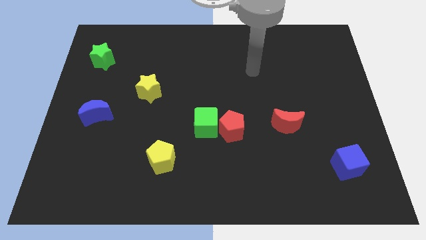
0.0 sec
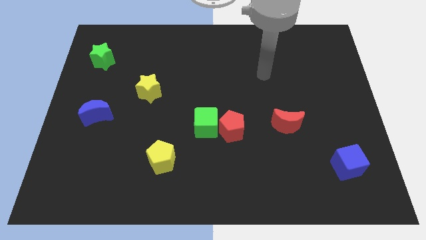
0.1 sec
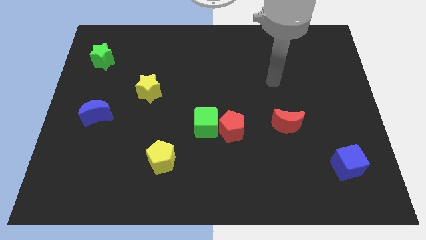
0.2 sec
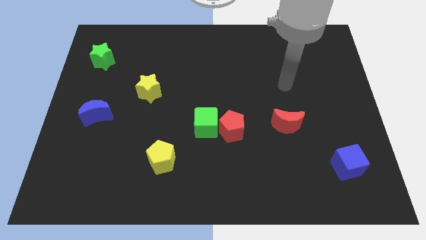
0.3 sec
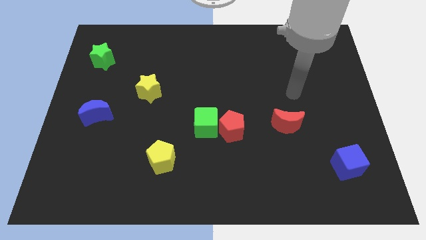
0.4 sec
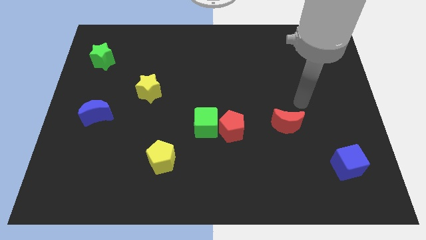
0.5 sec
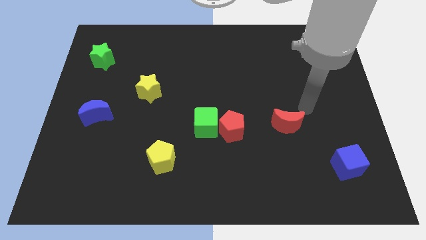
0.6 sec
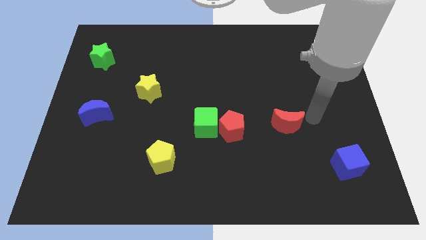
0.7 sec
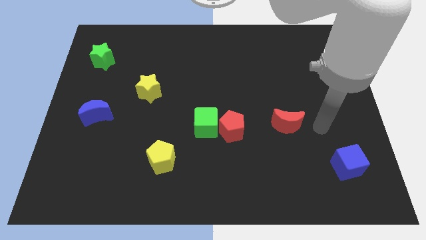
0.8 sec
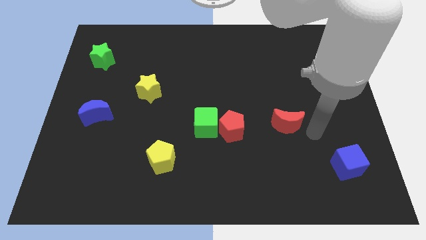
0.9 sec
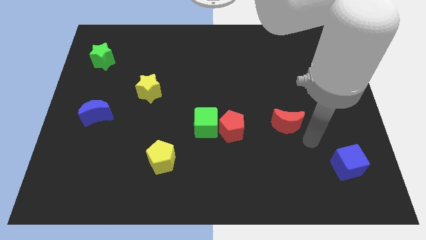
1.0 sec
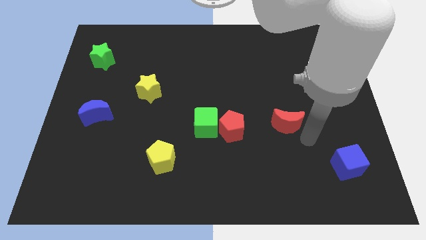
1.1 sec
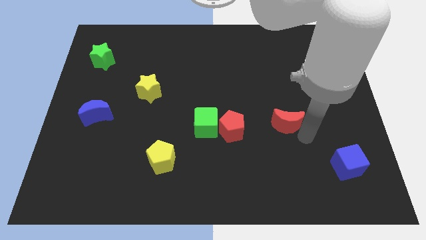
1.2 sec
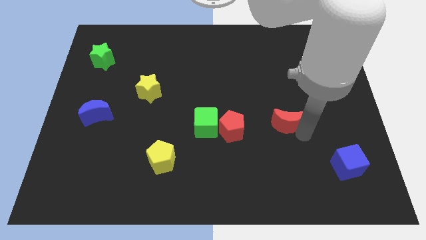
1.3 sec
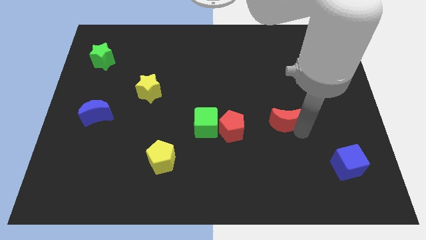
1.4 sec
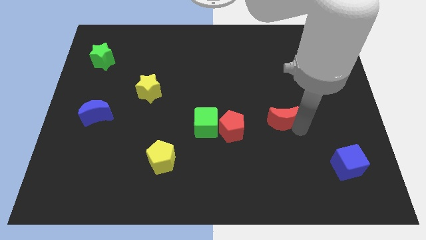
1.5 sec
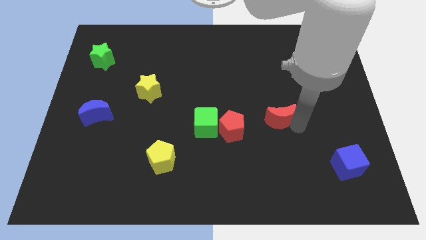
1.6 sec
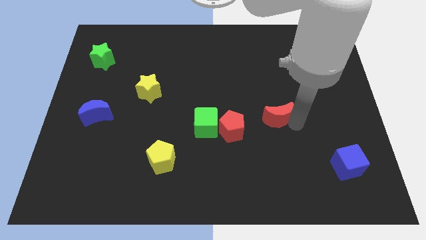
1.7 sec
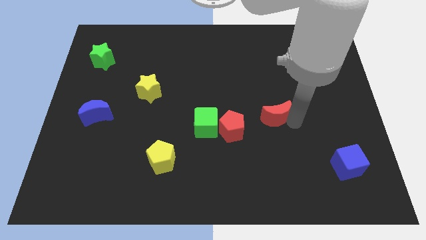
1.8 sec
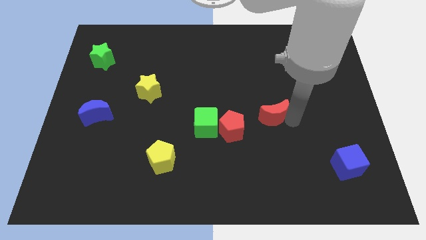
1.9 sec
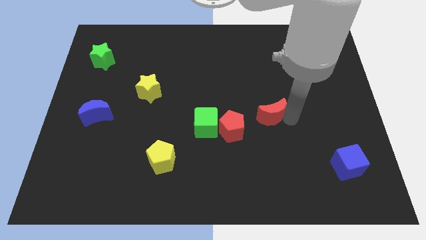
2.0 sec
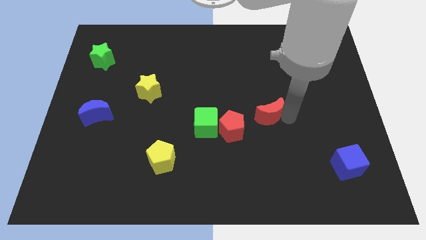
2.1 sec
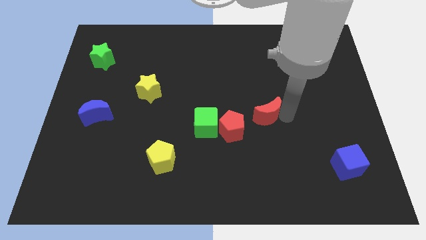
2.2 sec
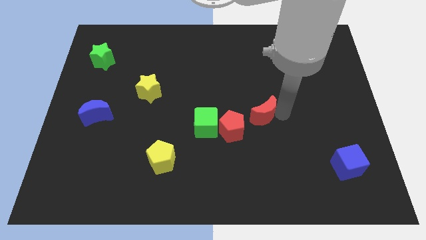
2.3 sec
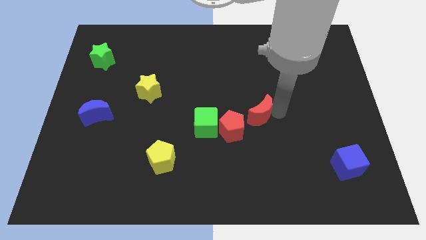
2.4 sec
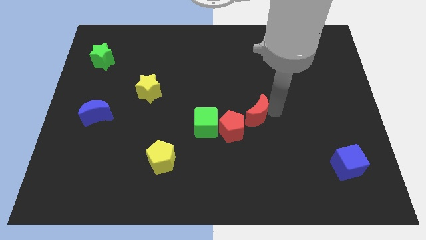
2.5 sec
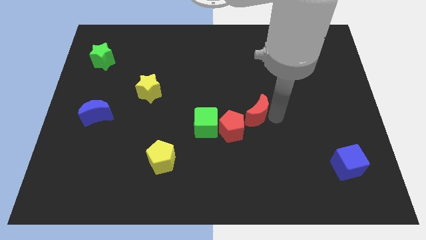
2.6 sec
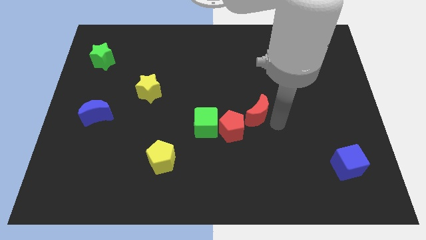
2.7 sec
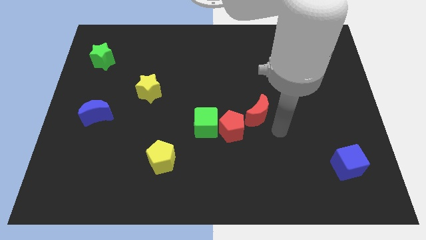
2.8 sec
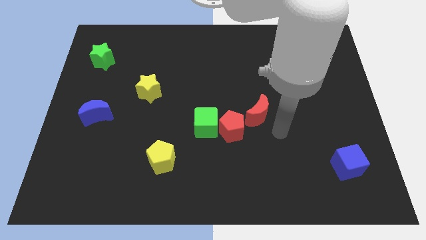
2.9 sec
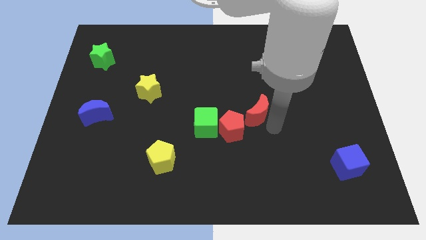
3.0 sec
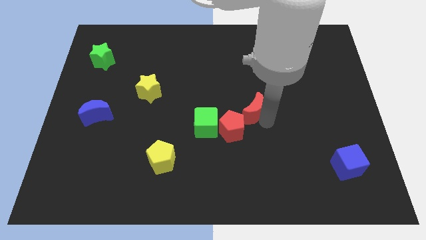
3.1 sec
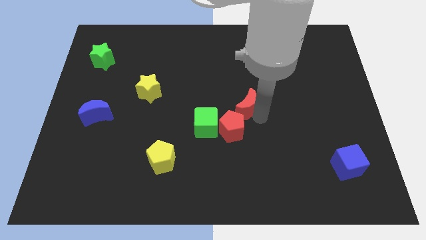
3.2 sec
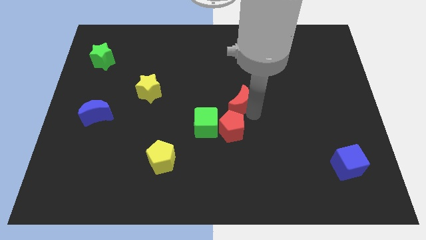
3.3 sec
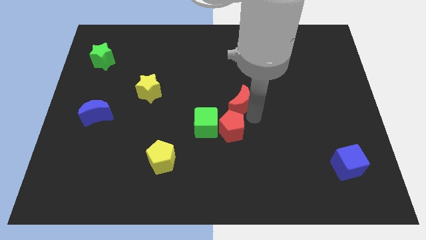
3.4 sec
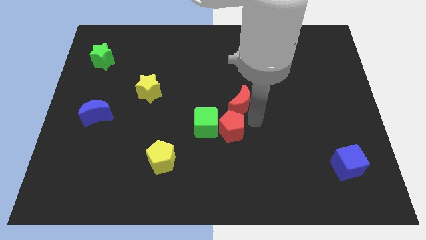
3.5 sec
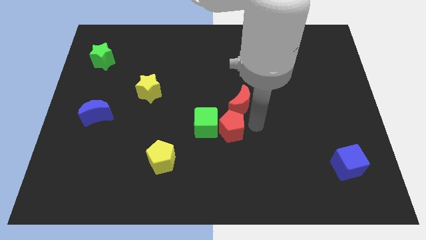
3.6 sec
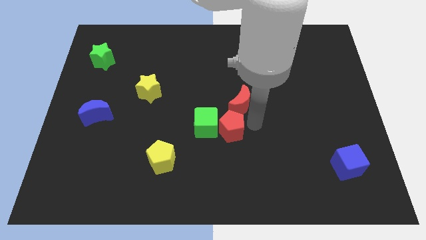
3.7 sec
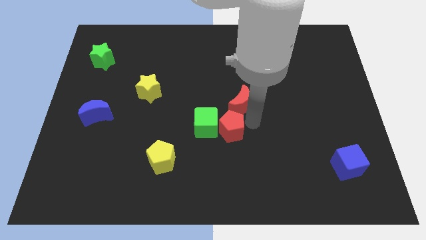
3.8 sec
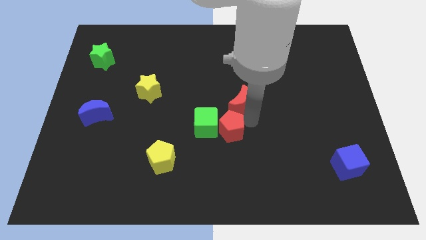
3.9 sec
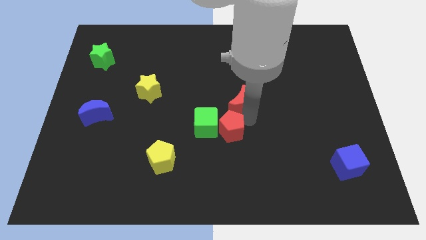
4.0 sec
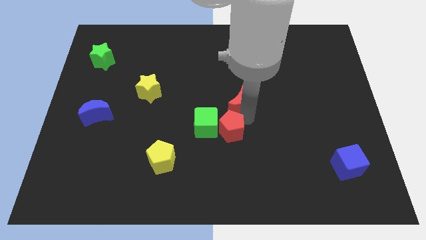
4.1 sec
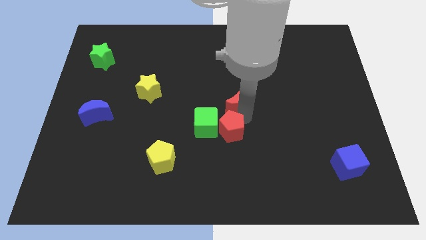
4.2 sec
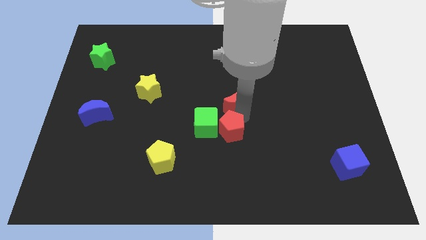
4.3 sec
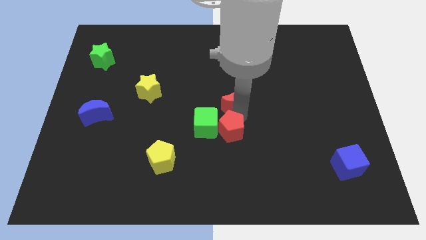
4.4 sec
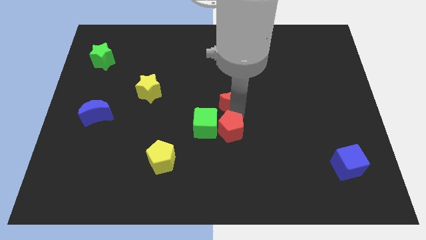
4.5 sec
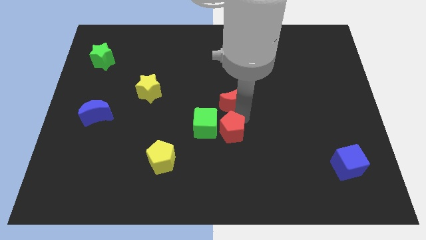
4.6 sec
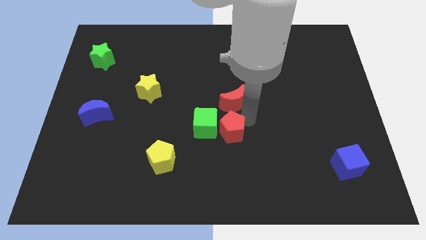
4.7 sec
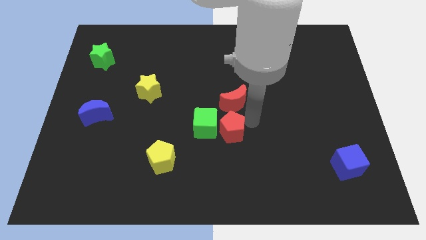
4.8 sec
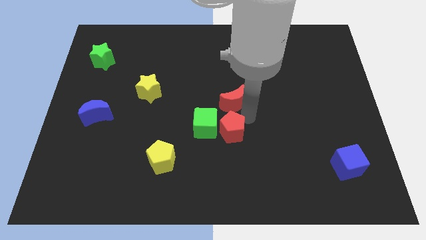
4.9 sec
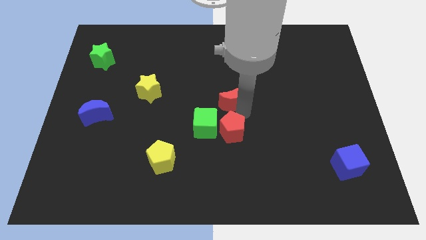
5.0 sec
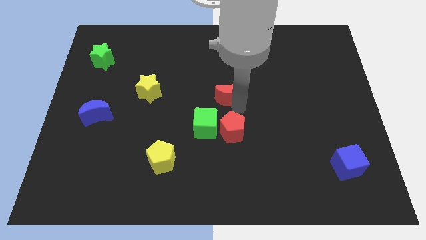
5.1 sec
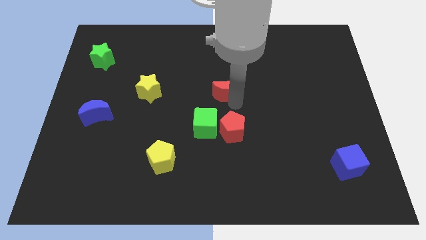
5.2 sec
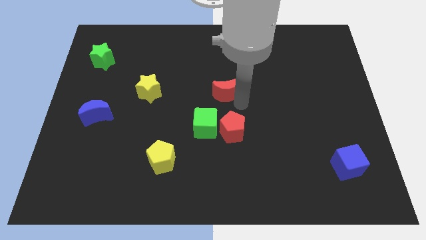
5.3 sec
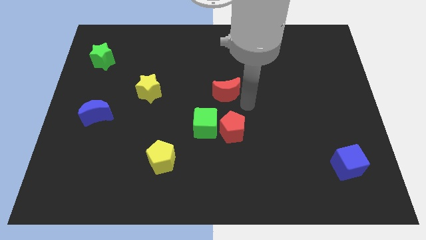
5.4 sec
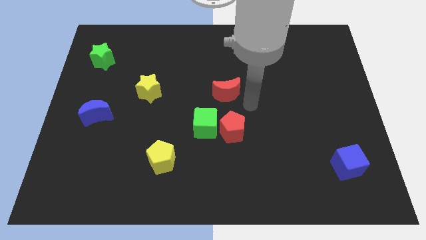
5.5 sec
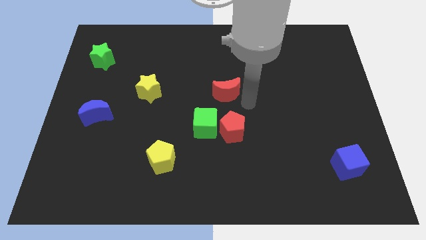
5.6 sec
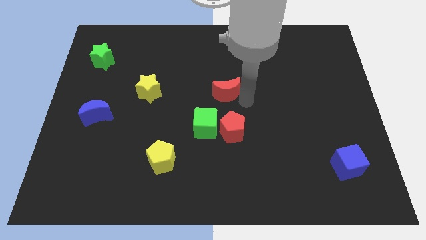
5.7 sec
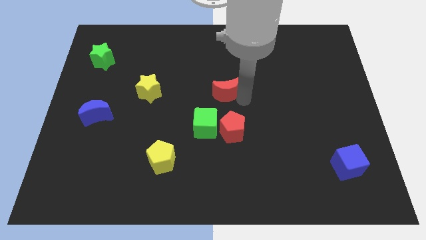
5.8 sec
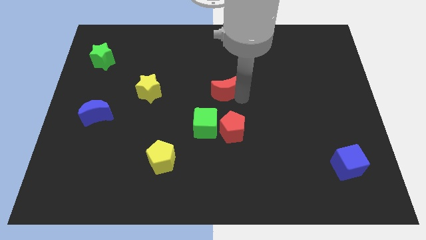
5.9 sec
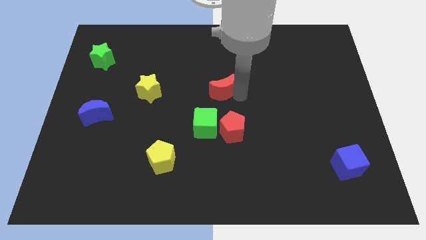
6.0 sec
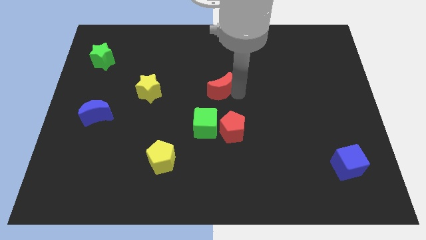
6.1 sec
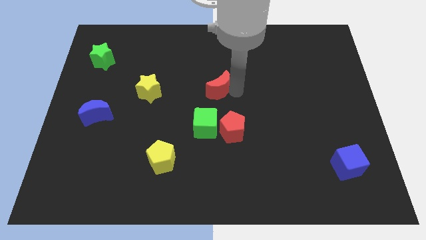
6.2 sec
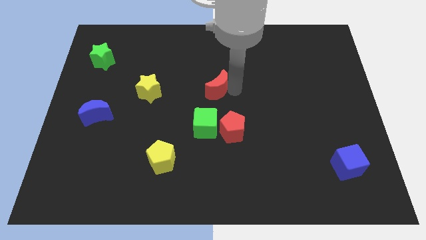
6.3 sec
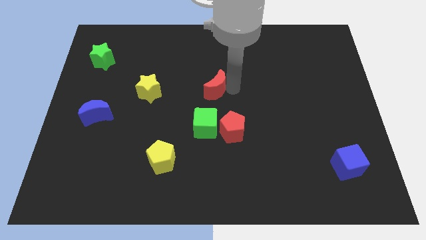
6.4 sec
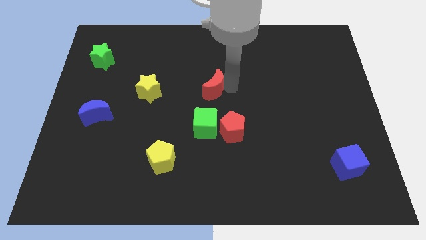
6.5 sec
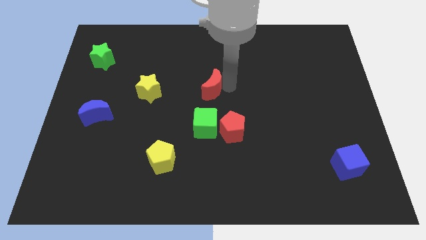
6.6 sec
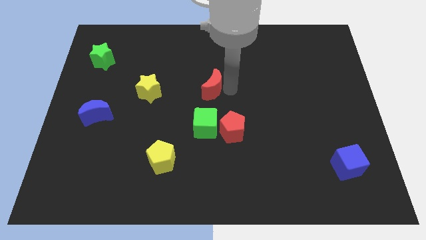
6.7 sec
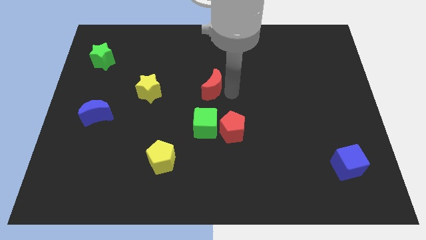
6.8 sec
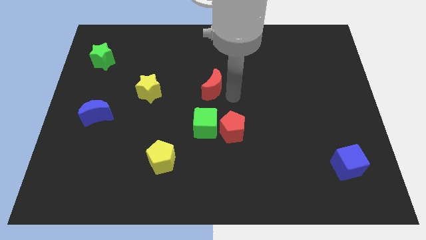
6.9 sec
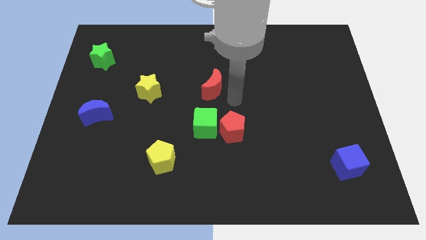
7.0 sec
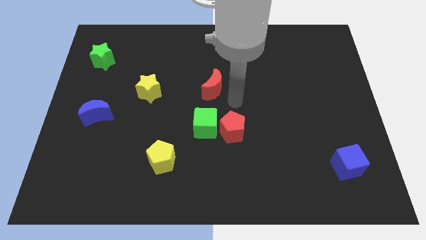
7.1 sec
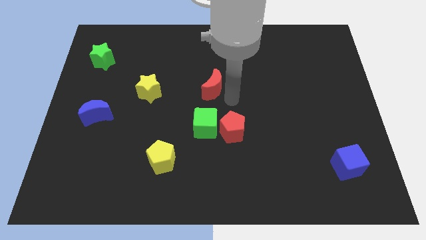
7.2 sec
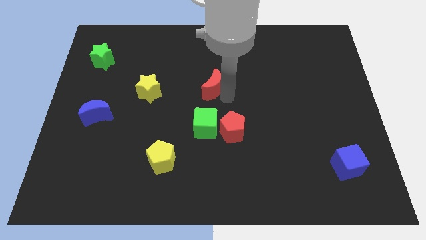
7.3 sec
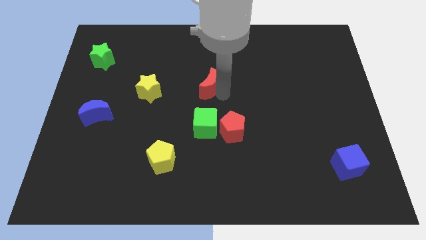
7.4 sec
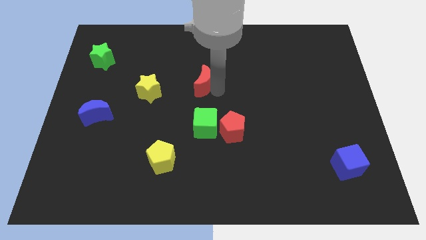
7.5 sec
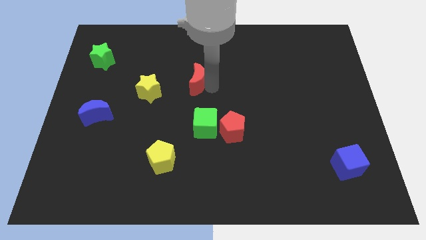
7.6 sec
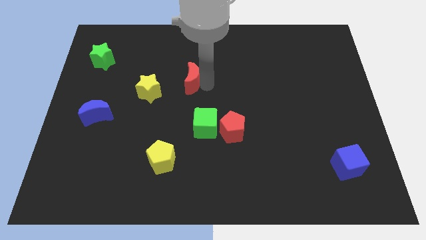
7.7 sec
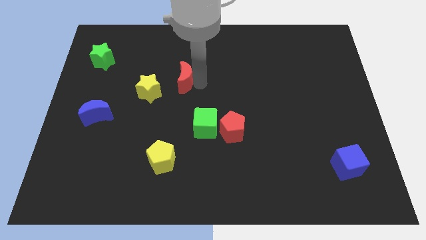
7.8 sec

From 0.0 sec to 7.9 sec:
move the red moon to the top right of the yellow star
